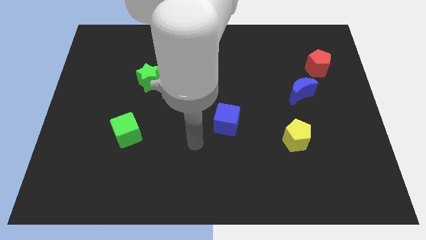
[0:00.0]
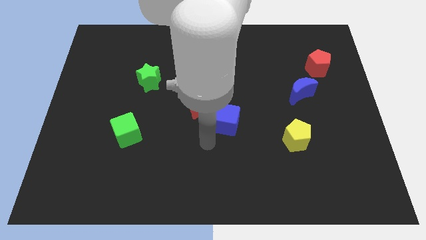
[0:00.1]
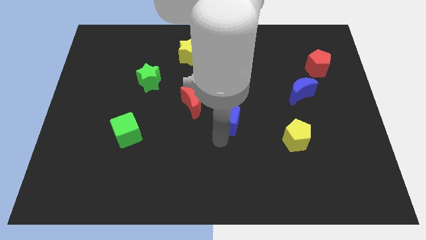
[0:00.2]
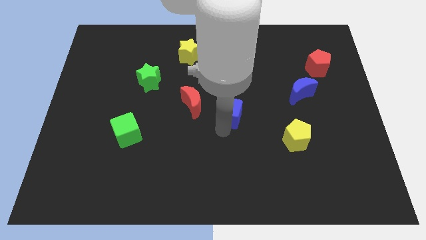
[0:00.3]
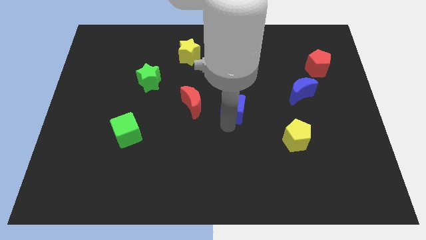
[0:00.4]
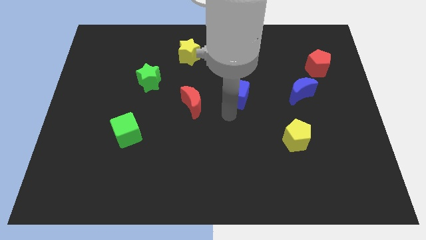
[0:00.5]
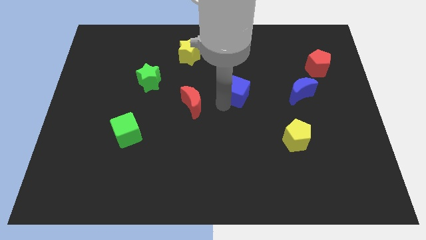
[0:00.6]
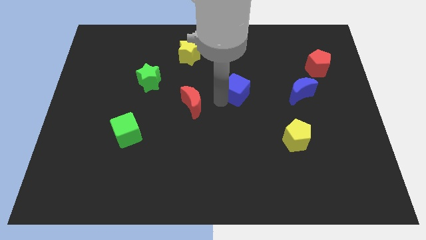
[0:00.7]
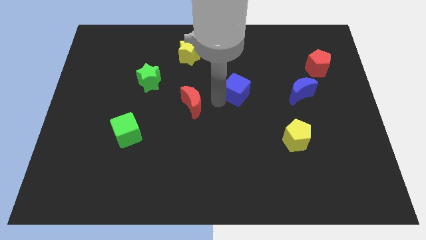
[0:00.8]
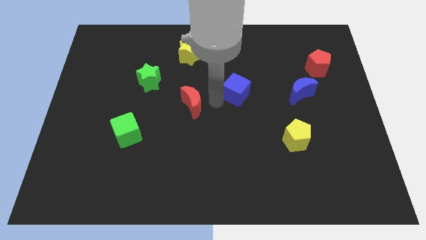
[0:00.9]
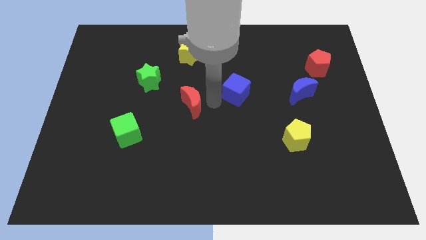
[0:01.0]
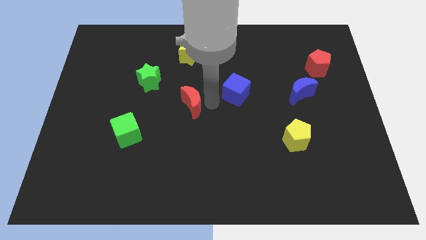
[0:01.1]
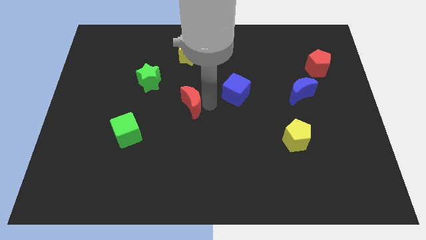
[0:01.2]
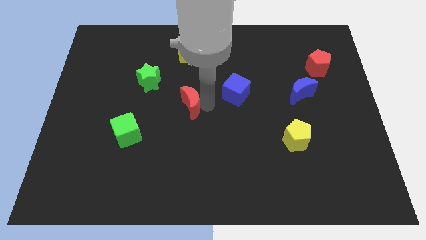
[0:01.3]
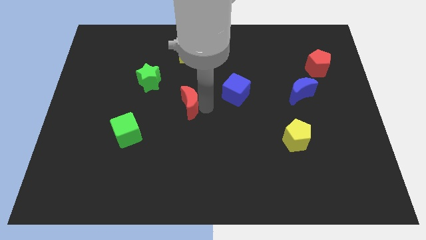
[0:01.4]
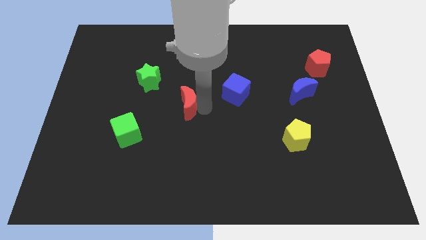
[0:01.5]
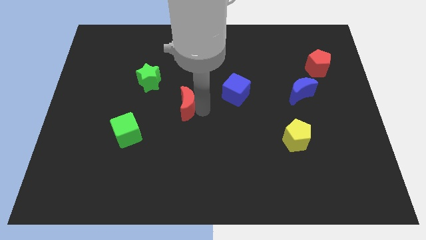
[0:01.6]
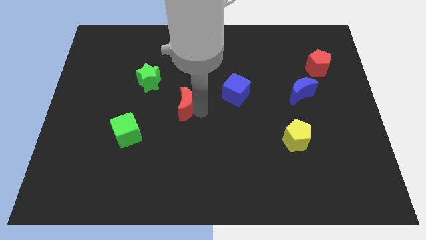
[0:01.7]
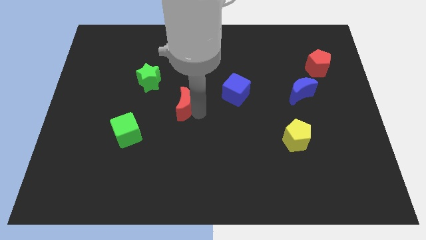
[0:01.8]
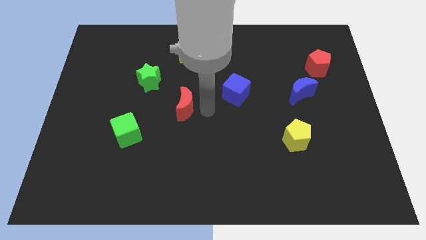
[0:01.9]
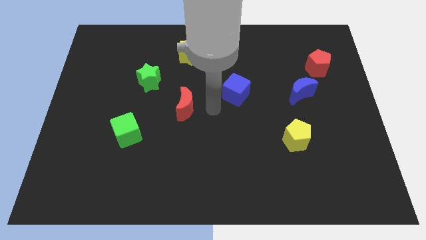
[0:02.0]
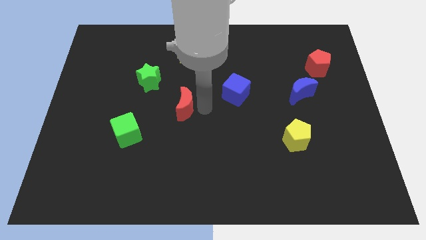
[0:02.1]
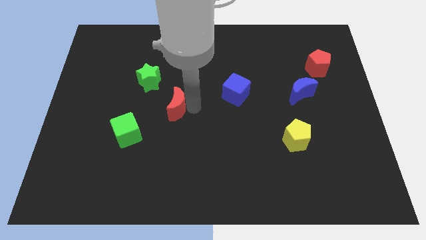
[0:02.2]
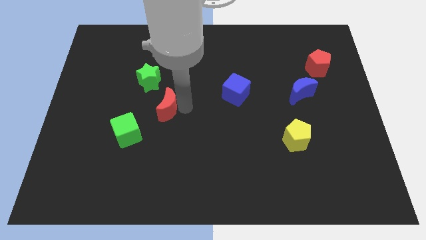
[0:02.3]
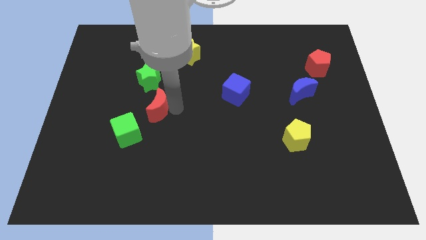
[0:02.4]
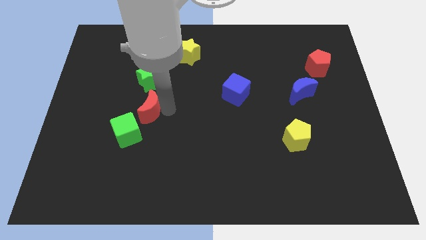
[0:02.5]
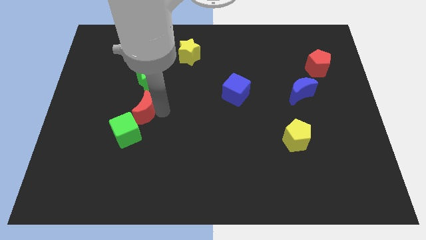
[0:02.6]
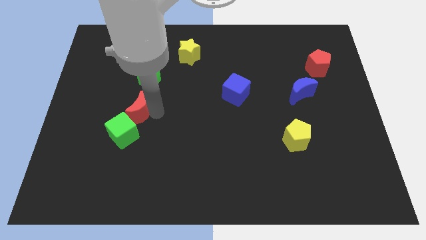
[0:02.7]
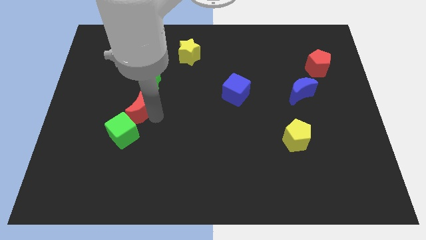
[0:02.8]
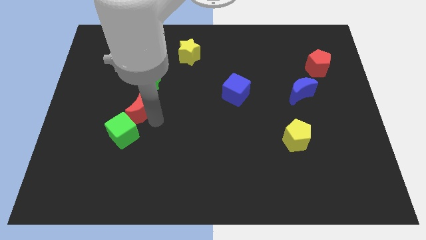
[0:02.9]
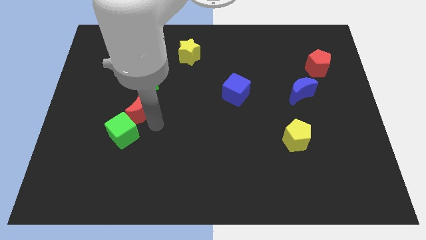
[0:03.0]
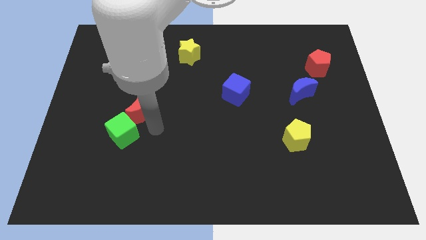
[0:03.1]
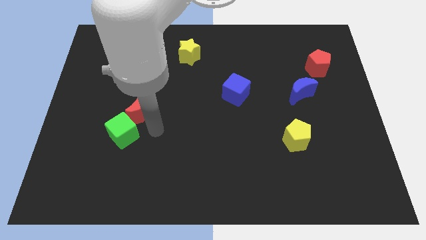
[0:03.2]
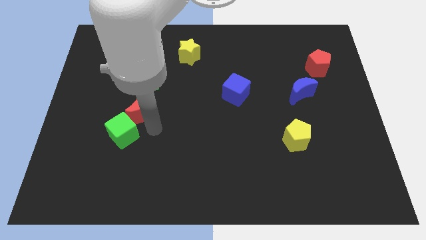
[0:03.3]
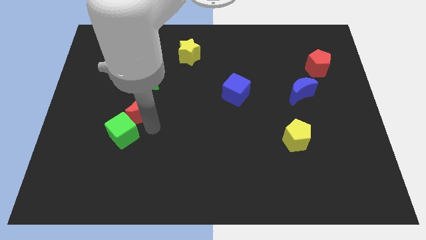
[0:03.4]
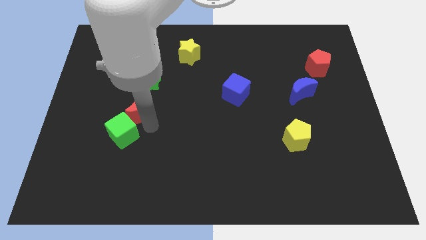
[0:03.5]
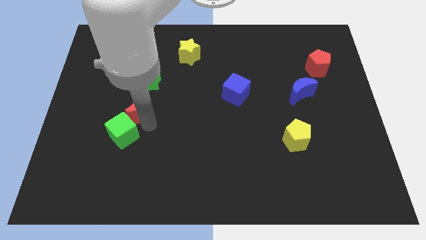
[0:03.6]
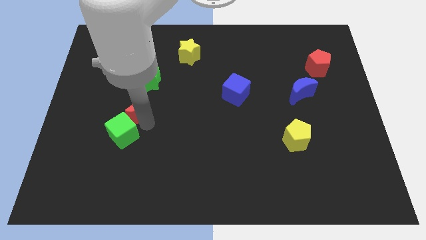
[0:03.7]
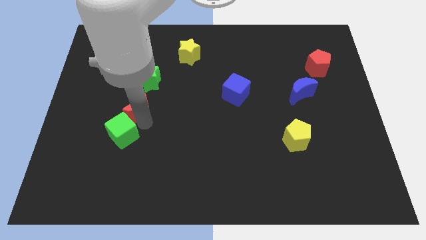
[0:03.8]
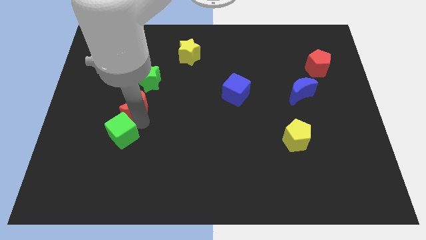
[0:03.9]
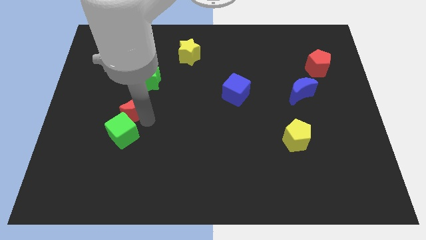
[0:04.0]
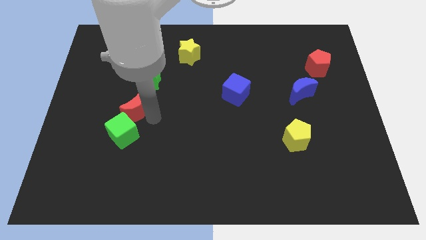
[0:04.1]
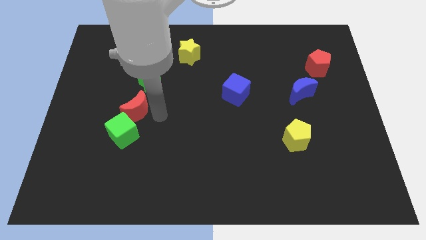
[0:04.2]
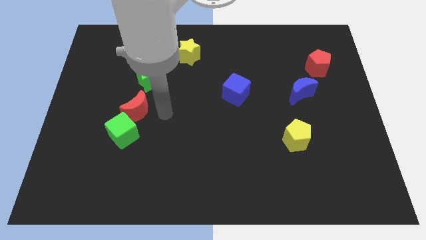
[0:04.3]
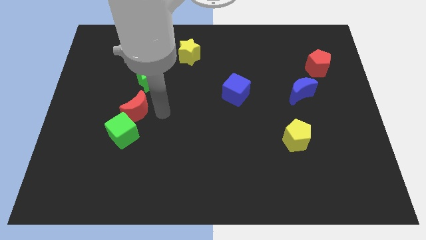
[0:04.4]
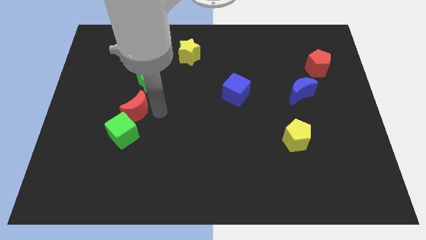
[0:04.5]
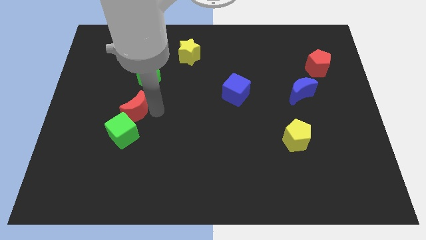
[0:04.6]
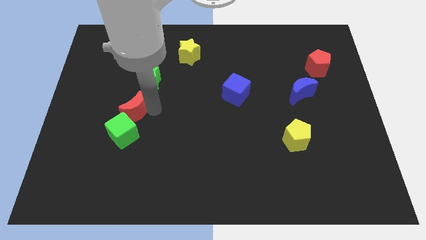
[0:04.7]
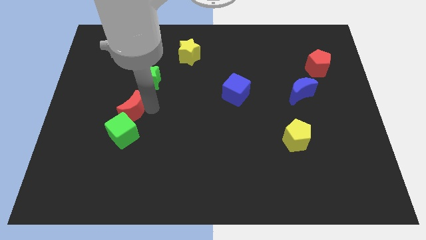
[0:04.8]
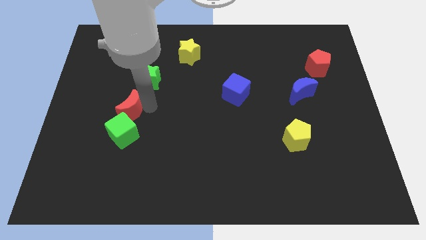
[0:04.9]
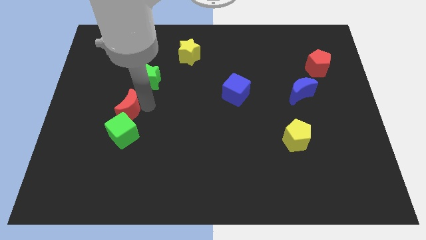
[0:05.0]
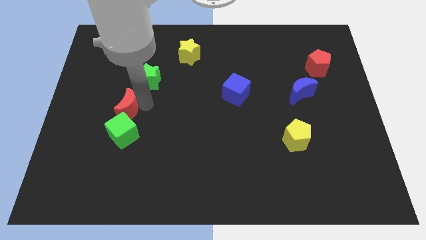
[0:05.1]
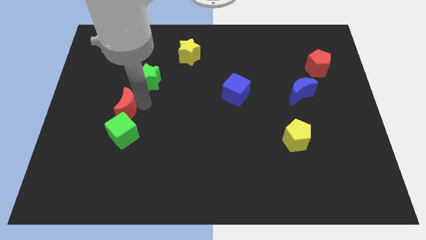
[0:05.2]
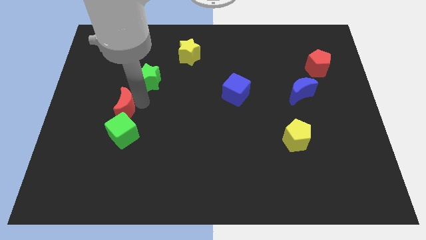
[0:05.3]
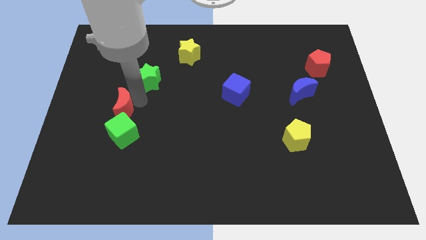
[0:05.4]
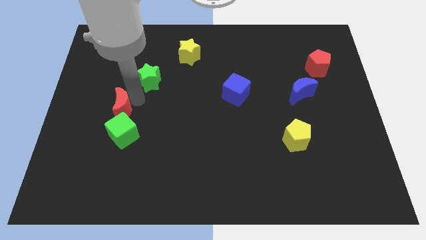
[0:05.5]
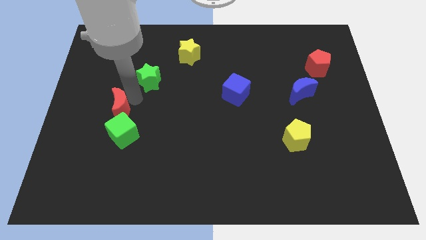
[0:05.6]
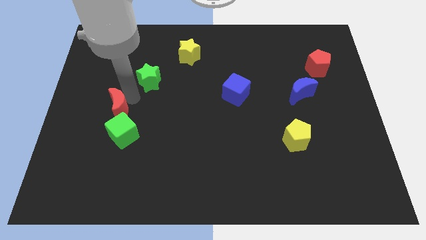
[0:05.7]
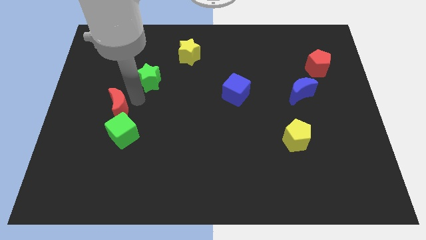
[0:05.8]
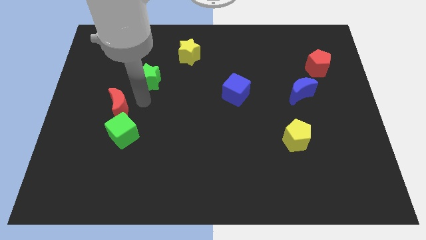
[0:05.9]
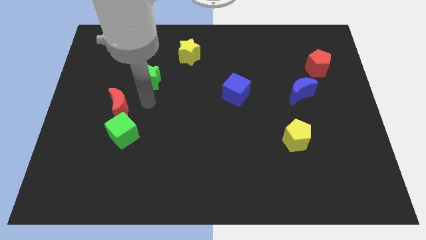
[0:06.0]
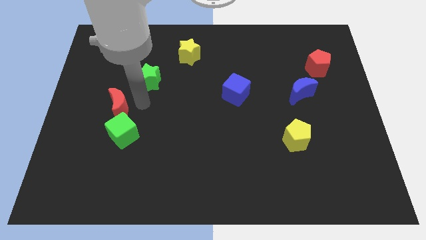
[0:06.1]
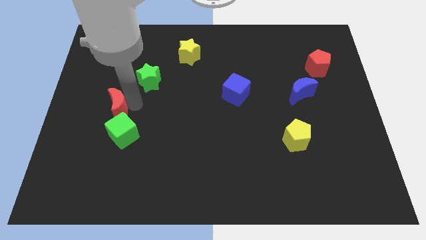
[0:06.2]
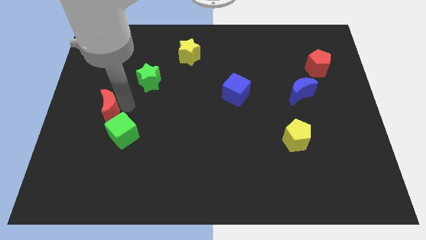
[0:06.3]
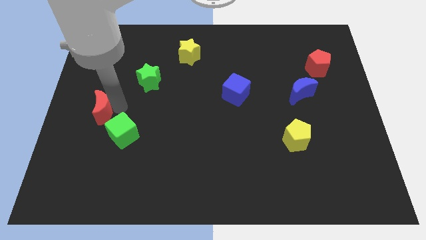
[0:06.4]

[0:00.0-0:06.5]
slide the red moon to the left side

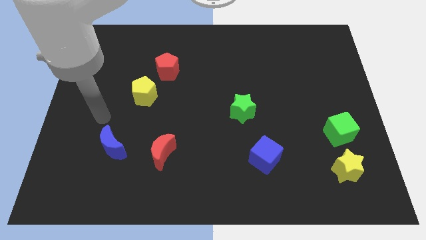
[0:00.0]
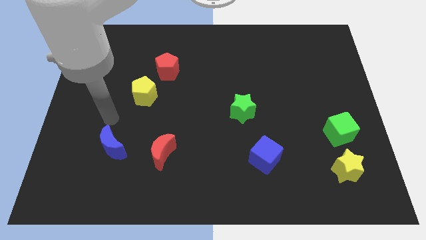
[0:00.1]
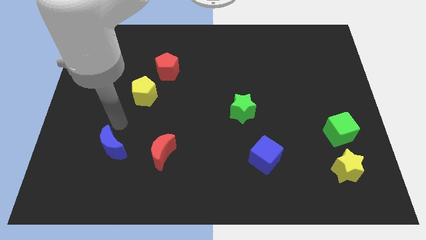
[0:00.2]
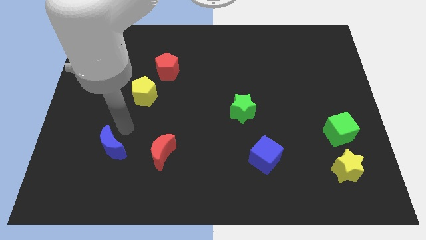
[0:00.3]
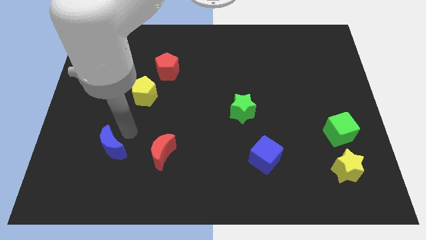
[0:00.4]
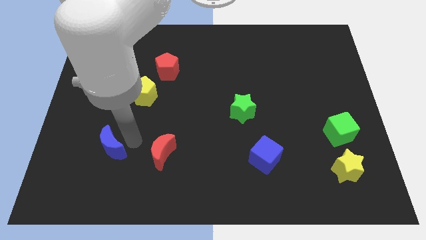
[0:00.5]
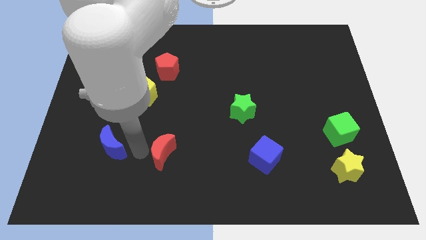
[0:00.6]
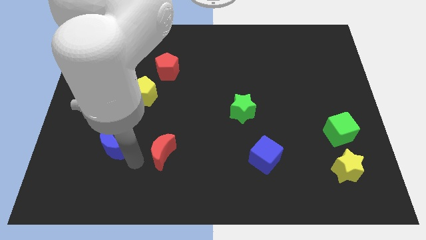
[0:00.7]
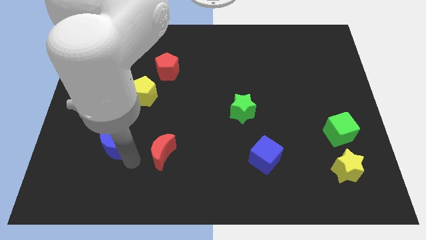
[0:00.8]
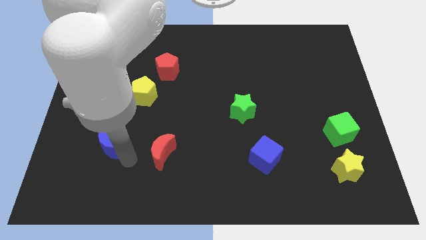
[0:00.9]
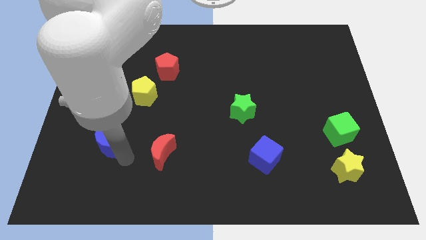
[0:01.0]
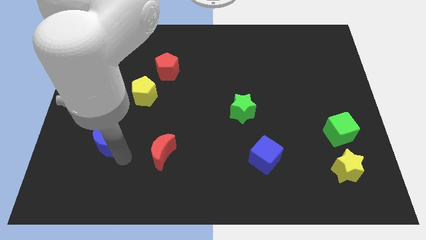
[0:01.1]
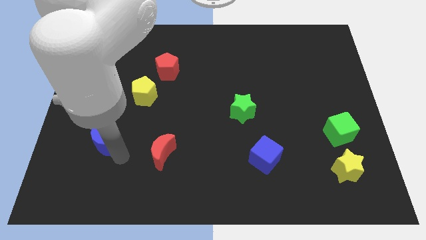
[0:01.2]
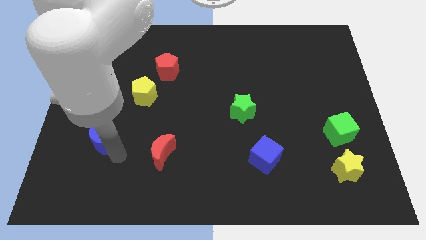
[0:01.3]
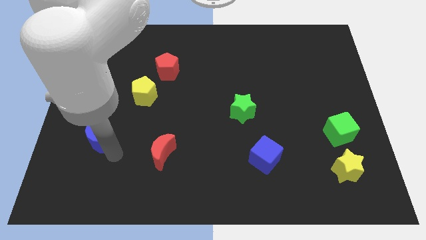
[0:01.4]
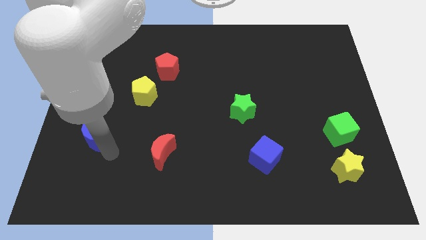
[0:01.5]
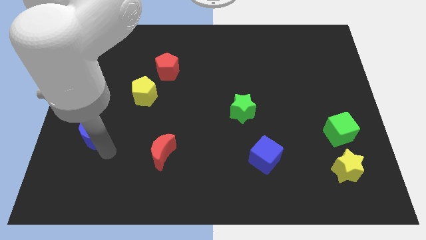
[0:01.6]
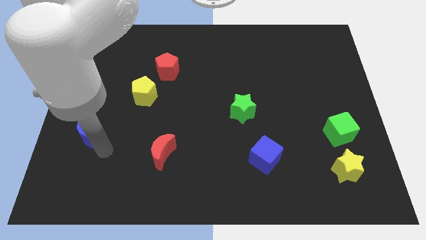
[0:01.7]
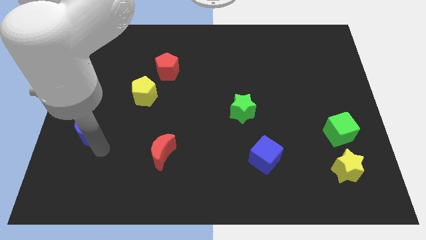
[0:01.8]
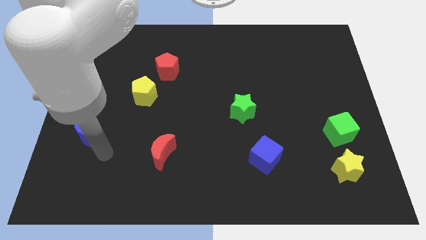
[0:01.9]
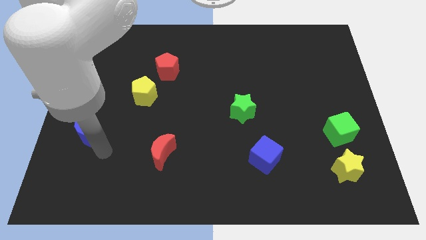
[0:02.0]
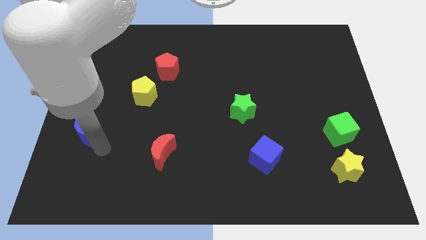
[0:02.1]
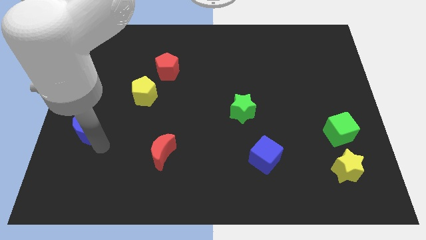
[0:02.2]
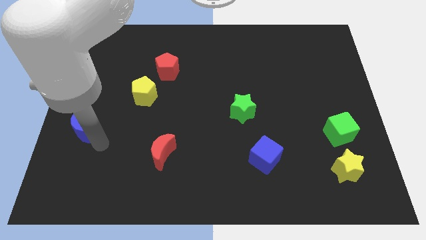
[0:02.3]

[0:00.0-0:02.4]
push the blue moon to the left side of the board
